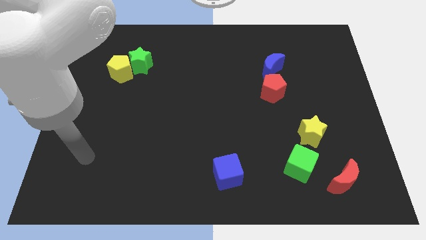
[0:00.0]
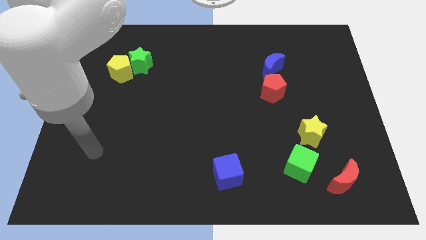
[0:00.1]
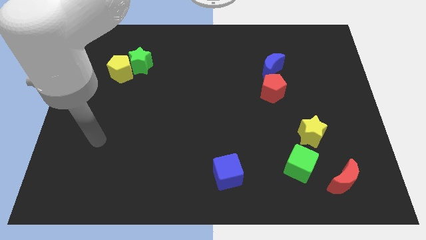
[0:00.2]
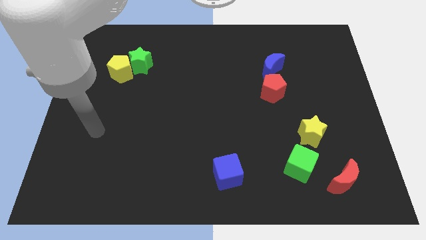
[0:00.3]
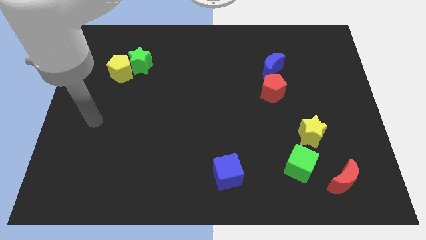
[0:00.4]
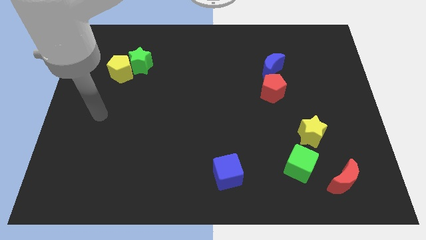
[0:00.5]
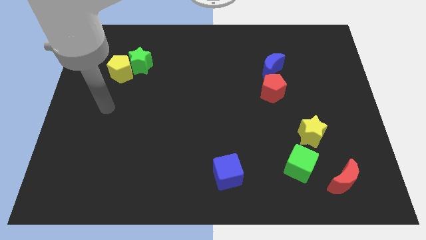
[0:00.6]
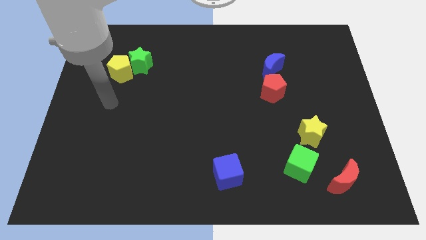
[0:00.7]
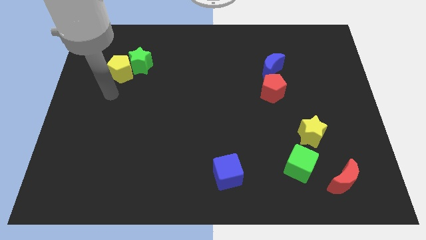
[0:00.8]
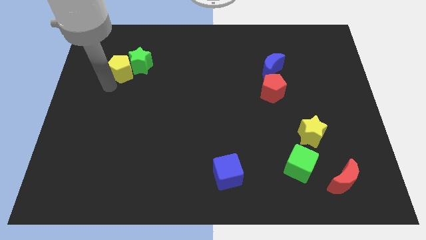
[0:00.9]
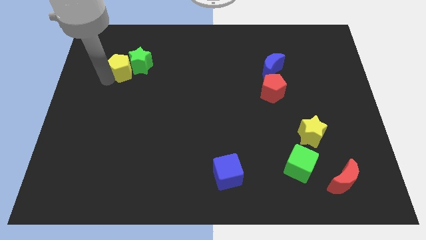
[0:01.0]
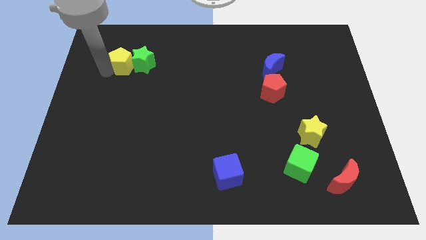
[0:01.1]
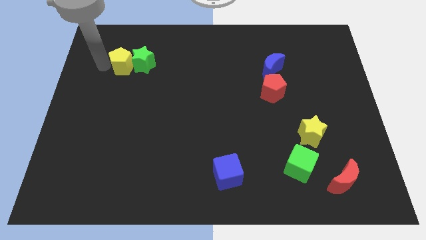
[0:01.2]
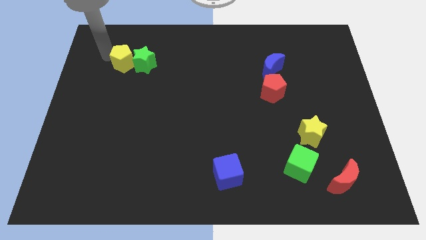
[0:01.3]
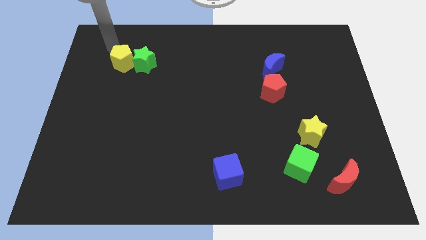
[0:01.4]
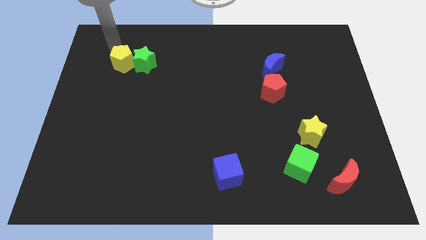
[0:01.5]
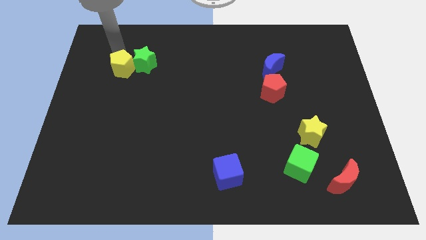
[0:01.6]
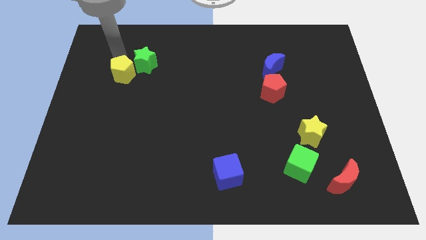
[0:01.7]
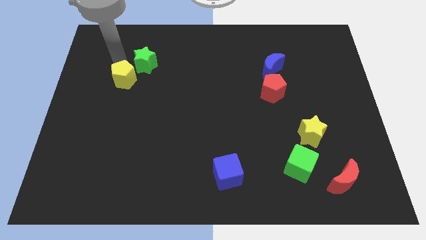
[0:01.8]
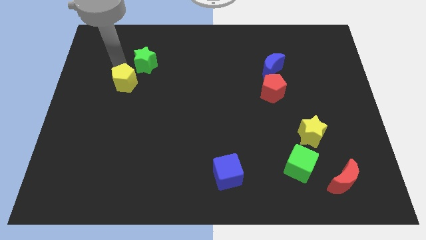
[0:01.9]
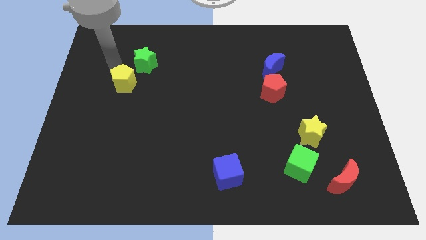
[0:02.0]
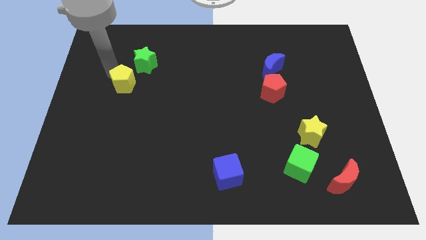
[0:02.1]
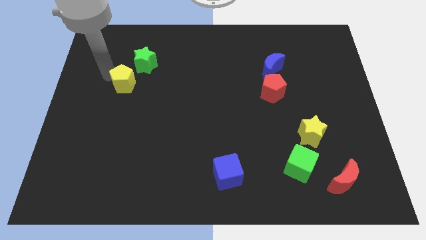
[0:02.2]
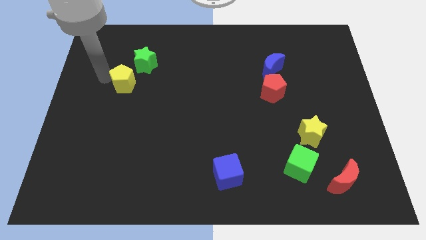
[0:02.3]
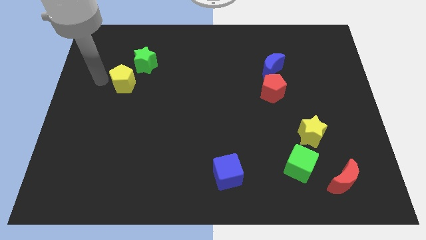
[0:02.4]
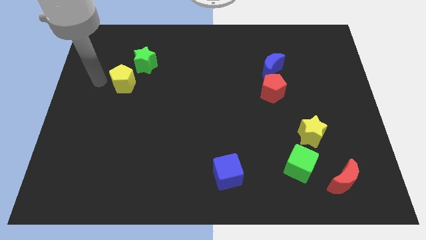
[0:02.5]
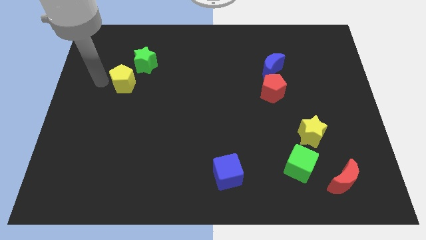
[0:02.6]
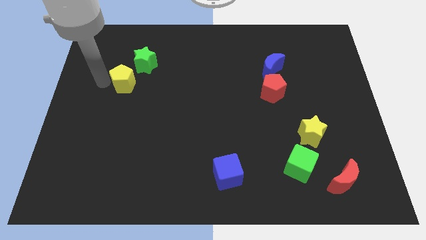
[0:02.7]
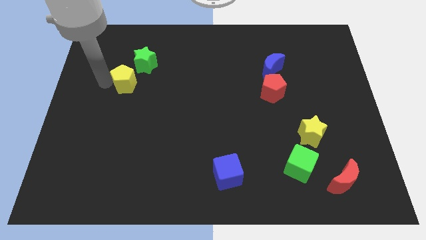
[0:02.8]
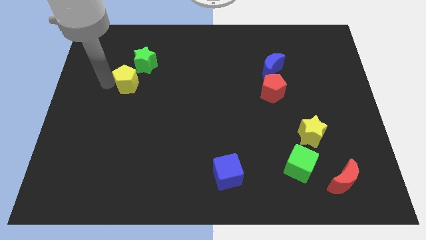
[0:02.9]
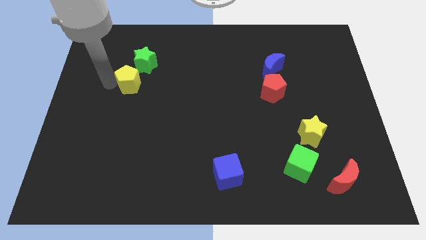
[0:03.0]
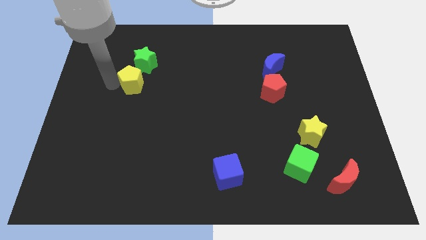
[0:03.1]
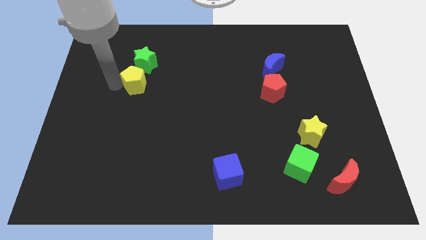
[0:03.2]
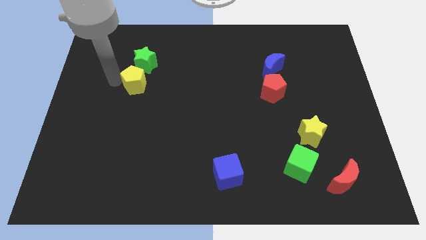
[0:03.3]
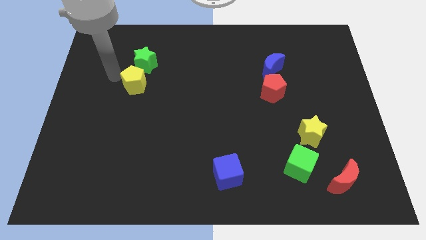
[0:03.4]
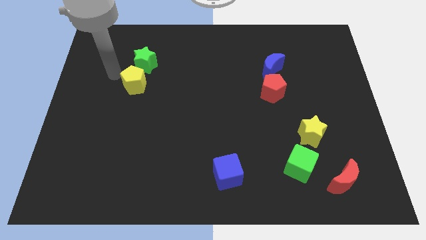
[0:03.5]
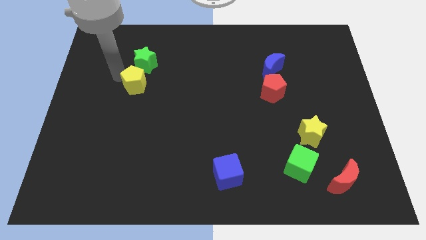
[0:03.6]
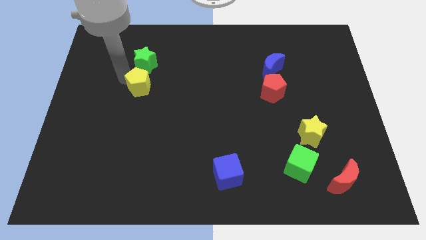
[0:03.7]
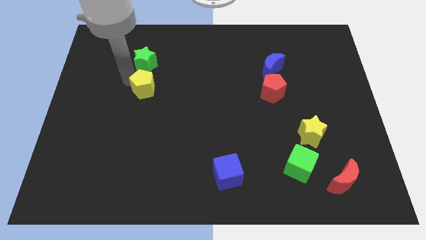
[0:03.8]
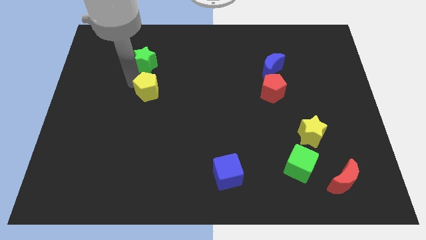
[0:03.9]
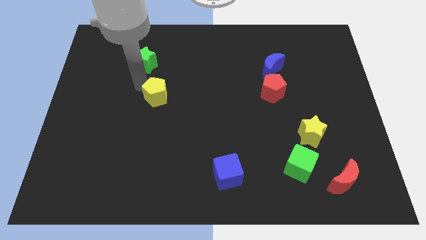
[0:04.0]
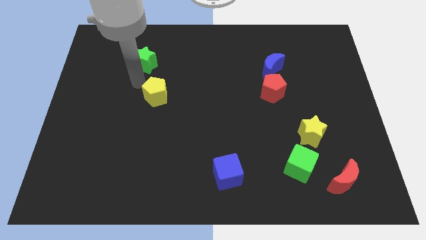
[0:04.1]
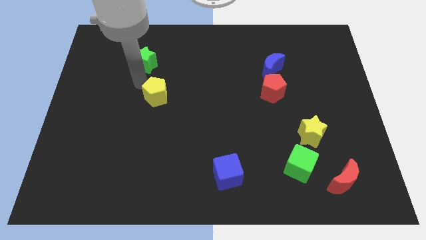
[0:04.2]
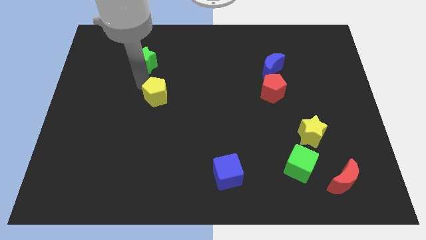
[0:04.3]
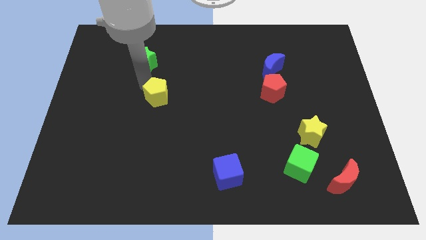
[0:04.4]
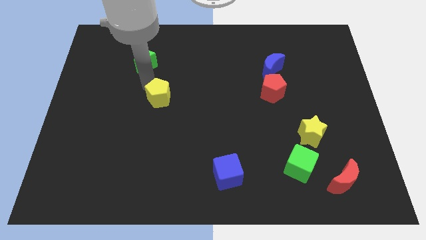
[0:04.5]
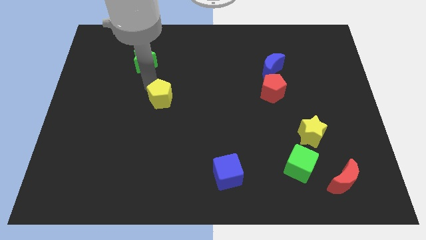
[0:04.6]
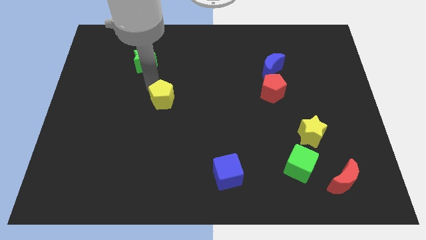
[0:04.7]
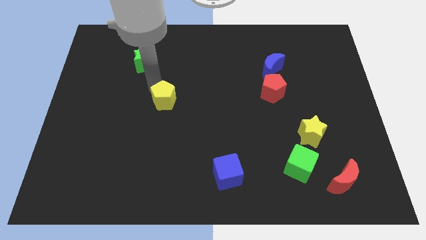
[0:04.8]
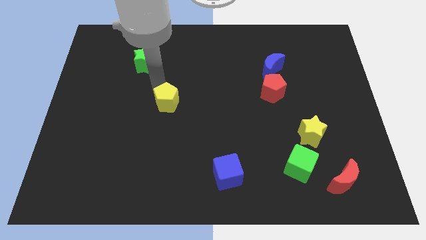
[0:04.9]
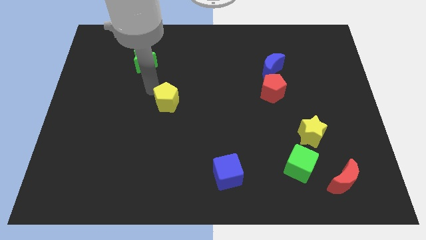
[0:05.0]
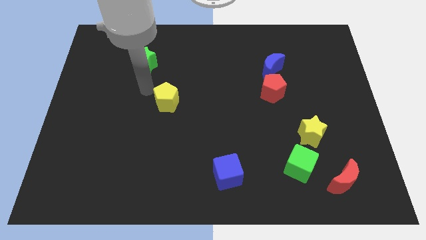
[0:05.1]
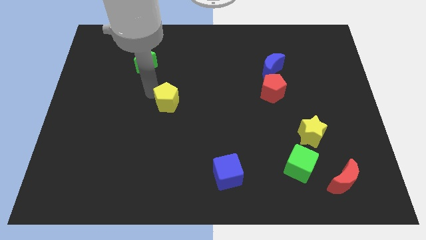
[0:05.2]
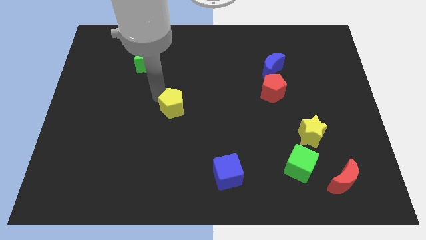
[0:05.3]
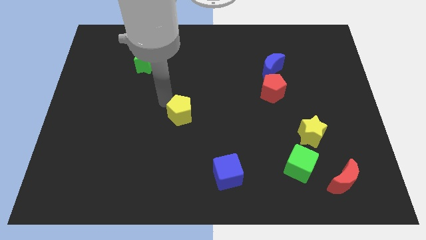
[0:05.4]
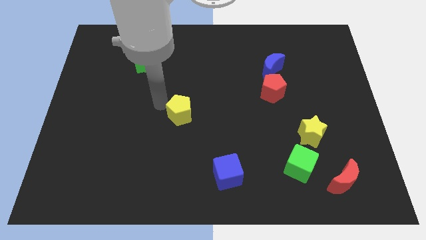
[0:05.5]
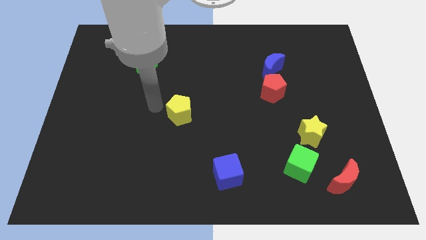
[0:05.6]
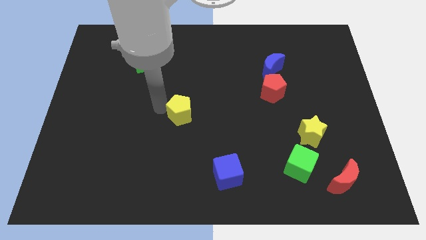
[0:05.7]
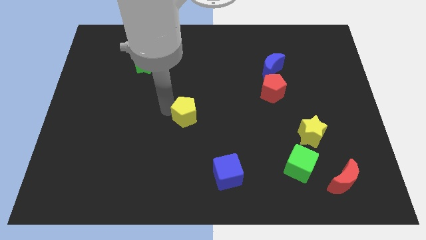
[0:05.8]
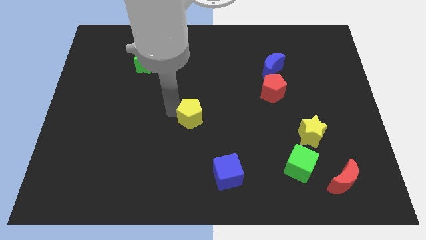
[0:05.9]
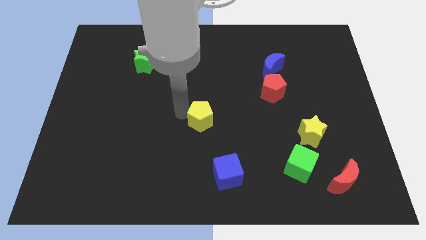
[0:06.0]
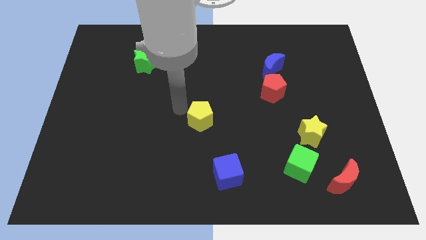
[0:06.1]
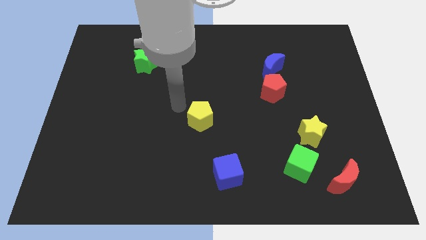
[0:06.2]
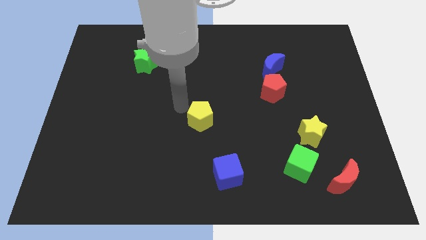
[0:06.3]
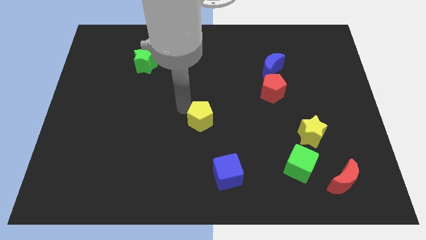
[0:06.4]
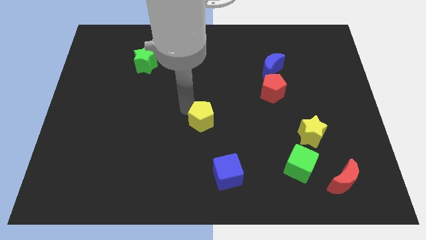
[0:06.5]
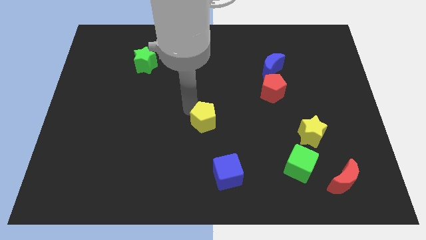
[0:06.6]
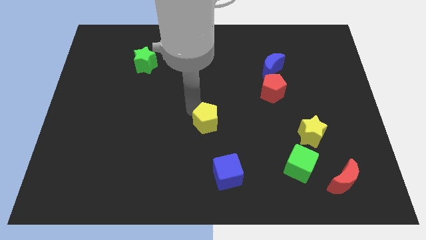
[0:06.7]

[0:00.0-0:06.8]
move the yellow pentagon to the top side of the blue cube

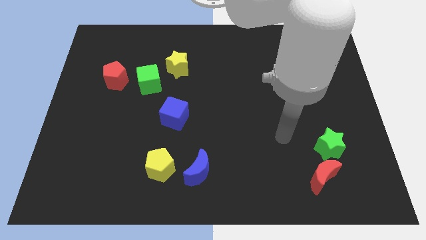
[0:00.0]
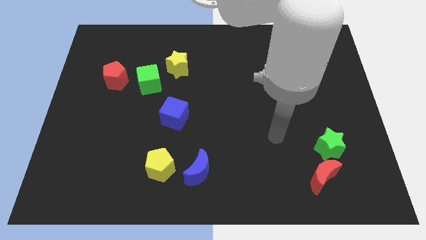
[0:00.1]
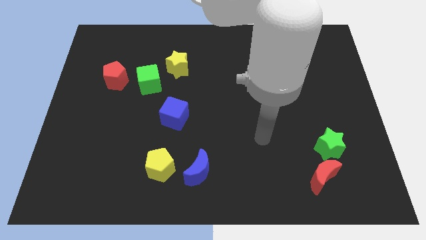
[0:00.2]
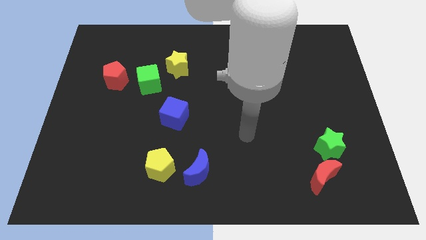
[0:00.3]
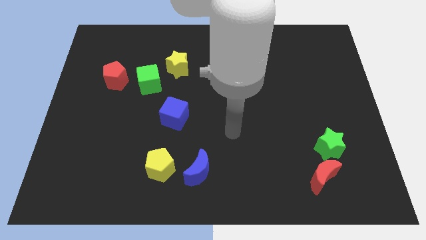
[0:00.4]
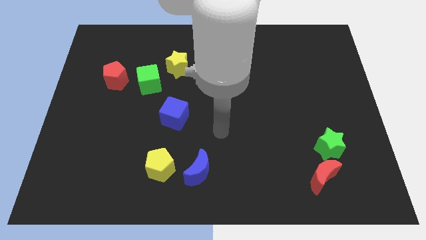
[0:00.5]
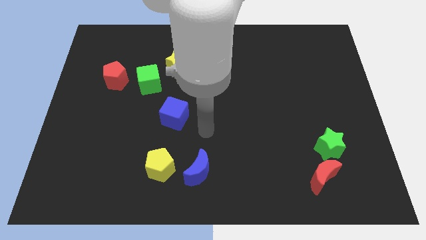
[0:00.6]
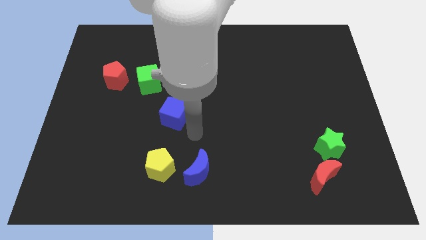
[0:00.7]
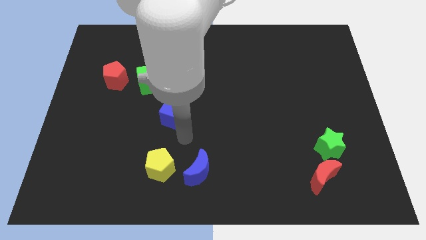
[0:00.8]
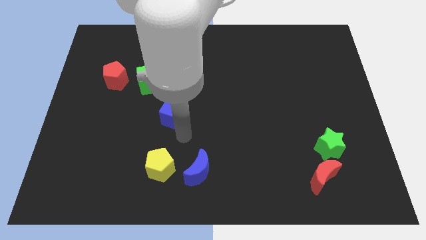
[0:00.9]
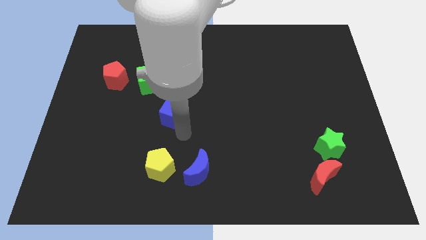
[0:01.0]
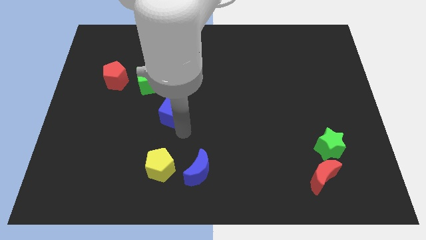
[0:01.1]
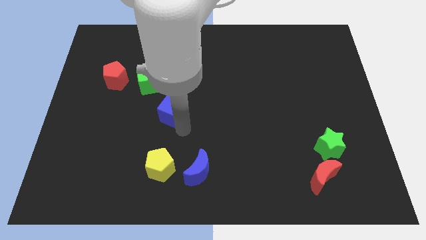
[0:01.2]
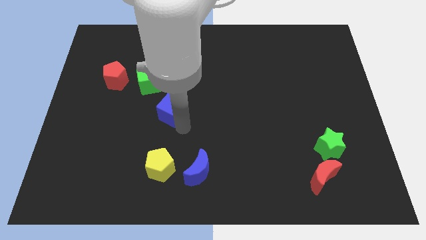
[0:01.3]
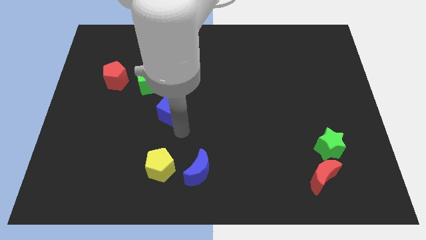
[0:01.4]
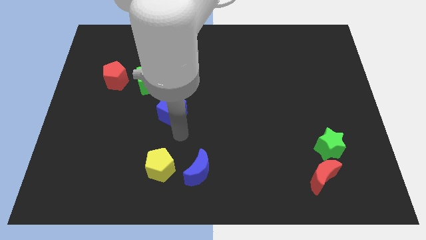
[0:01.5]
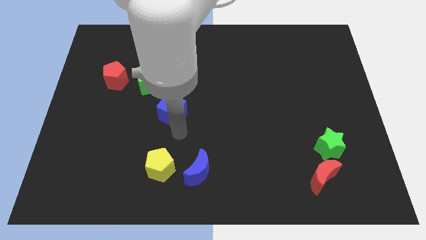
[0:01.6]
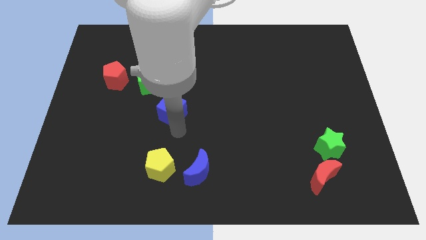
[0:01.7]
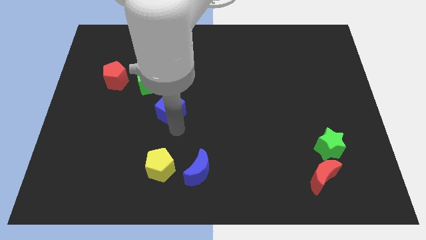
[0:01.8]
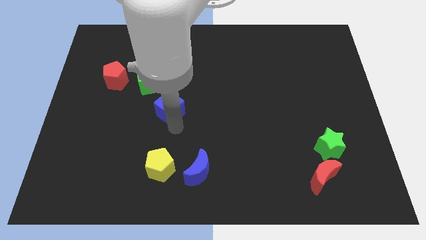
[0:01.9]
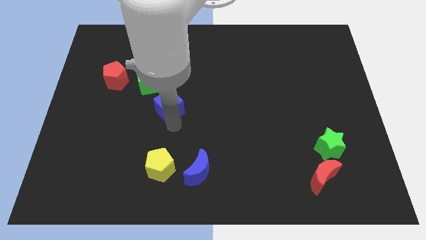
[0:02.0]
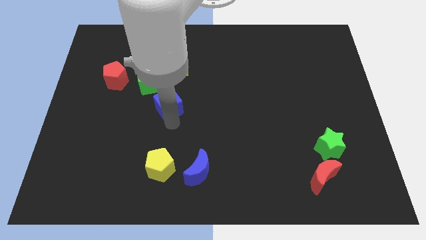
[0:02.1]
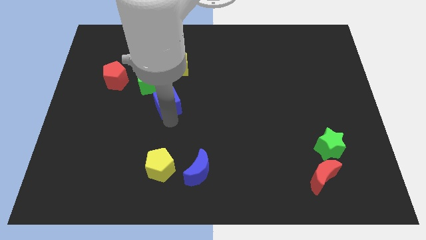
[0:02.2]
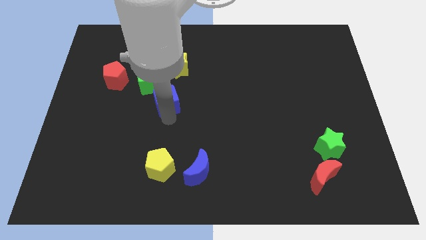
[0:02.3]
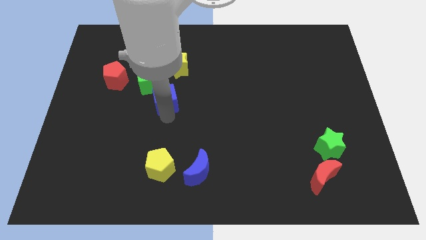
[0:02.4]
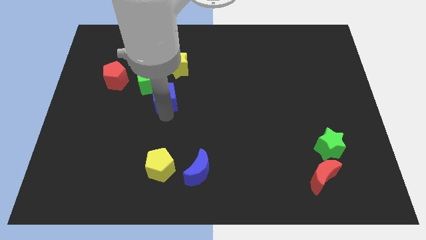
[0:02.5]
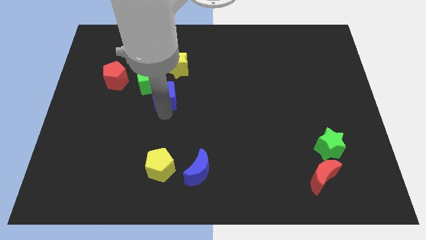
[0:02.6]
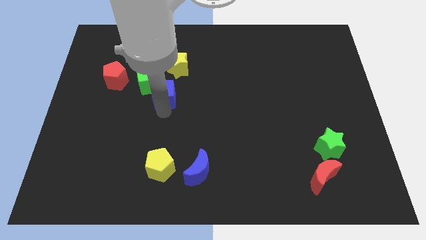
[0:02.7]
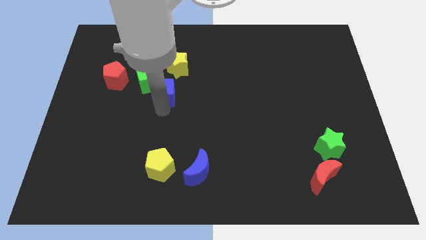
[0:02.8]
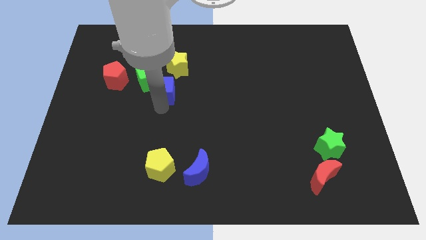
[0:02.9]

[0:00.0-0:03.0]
push the blue cube just right of the red pentagon
